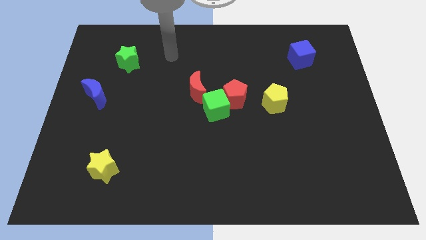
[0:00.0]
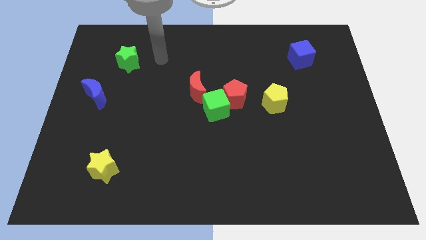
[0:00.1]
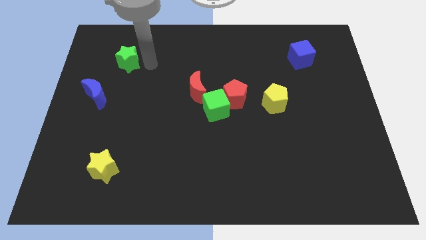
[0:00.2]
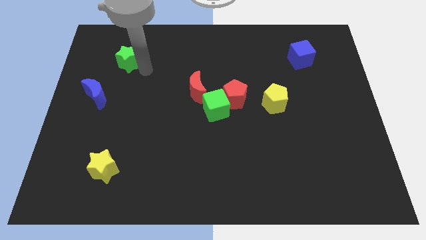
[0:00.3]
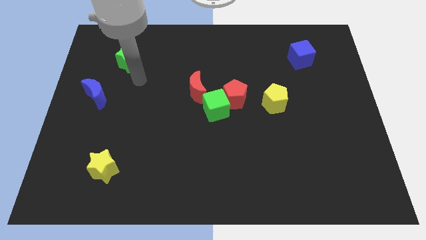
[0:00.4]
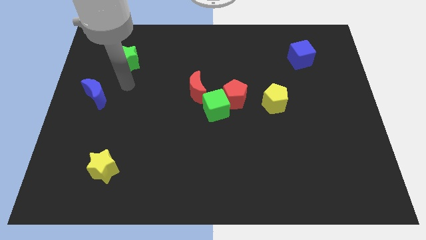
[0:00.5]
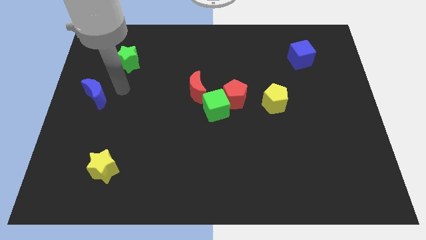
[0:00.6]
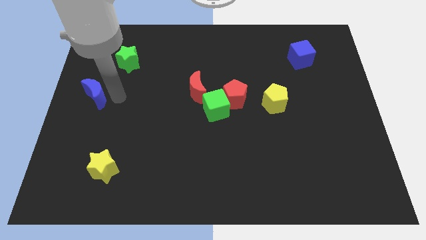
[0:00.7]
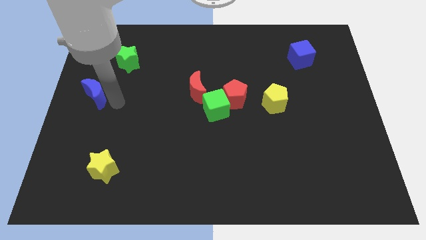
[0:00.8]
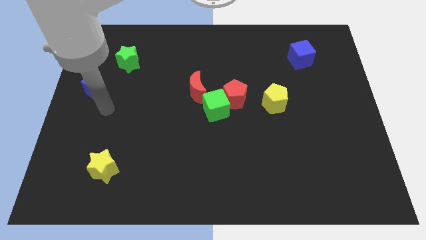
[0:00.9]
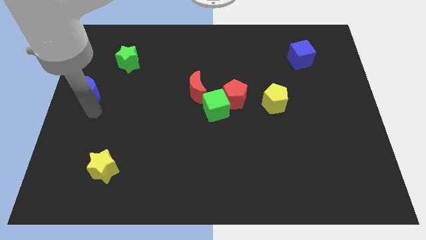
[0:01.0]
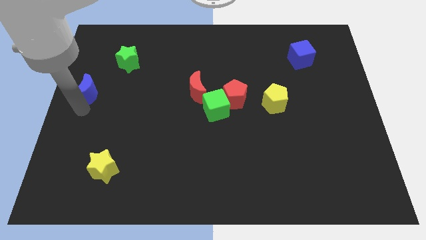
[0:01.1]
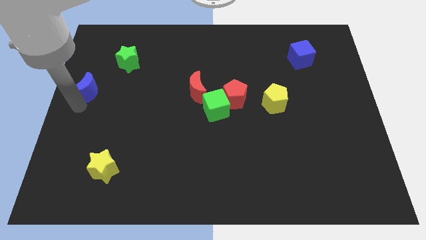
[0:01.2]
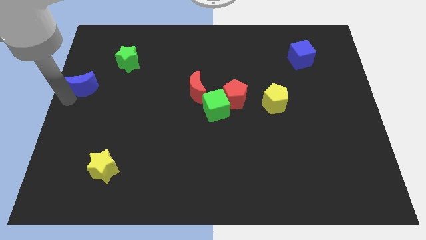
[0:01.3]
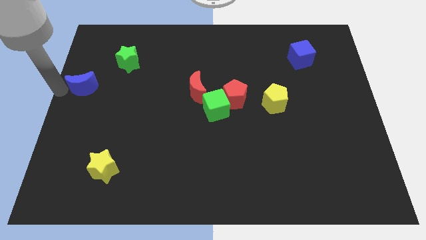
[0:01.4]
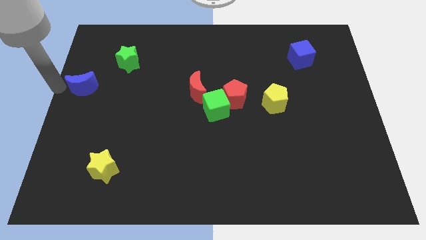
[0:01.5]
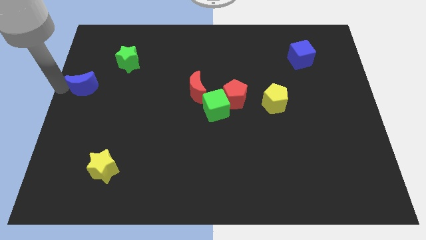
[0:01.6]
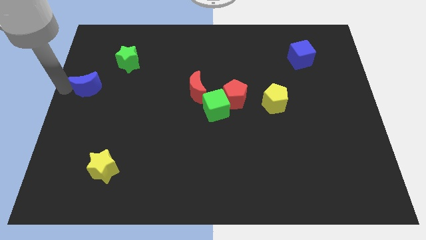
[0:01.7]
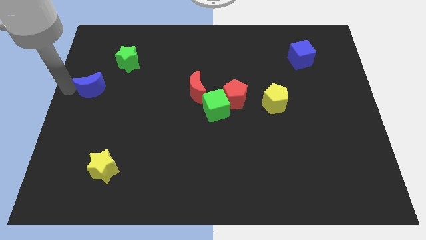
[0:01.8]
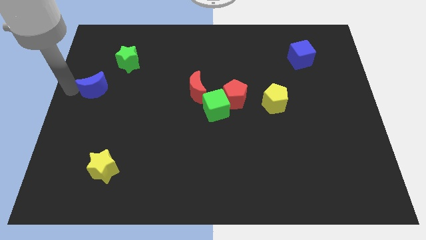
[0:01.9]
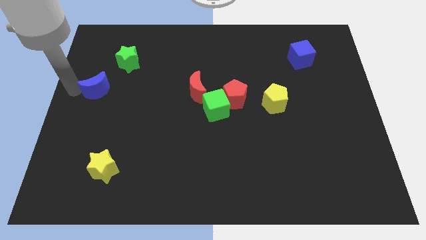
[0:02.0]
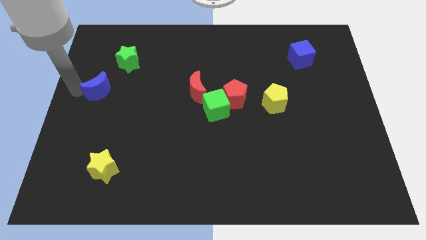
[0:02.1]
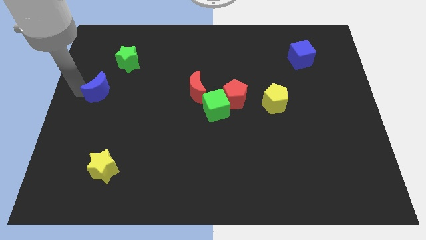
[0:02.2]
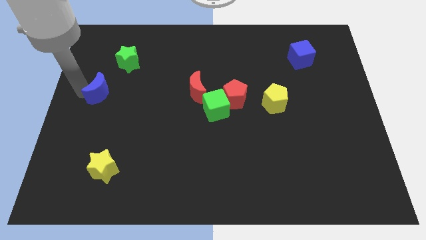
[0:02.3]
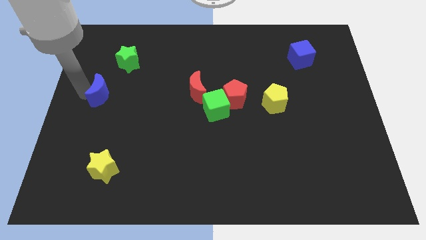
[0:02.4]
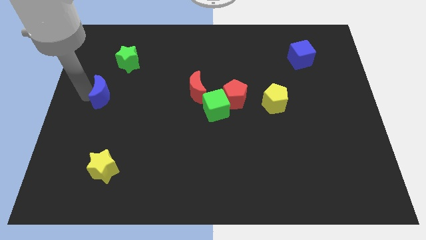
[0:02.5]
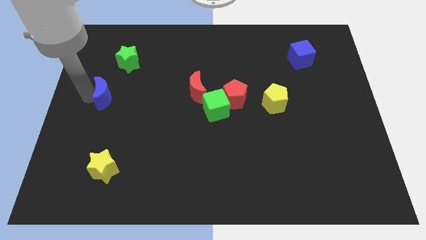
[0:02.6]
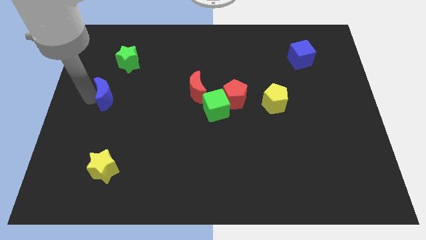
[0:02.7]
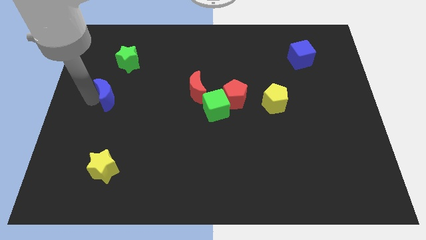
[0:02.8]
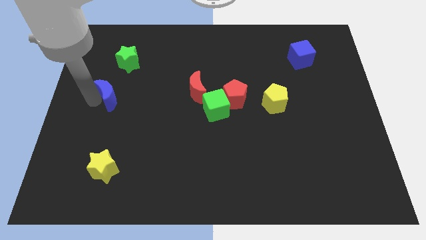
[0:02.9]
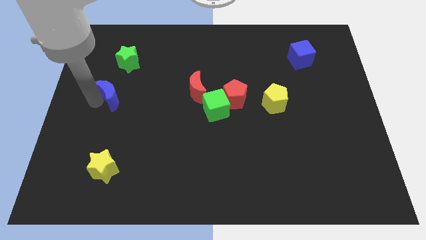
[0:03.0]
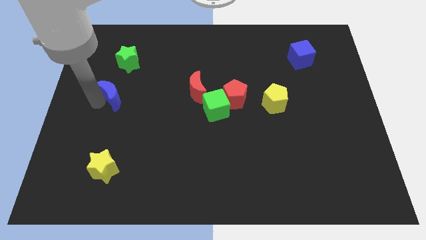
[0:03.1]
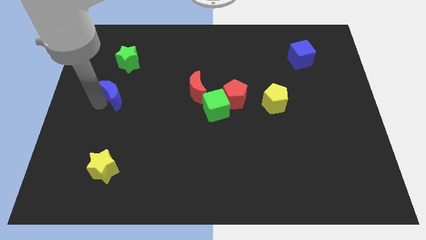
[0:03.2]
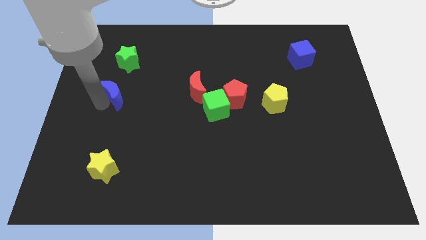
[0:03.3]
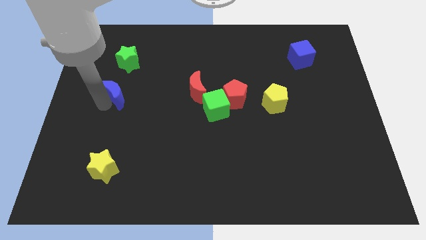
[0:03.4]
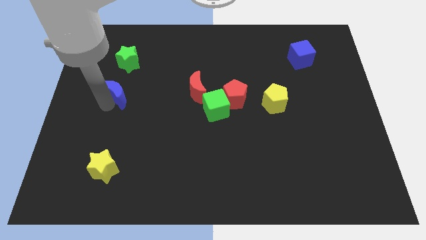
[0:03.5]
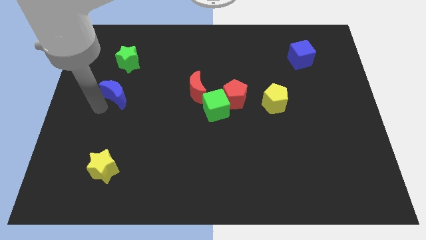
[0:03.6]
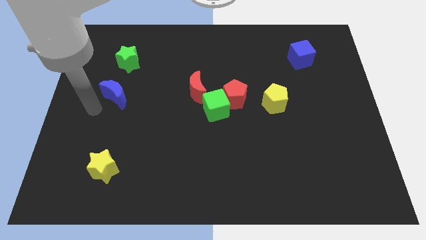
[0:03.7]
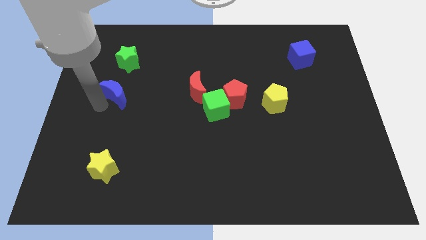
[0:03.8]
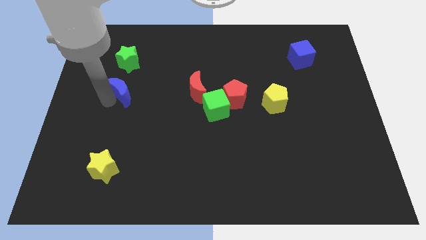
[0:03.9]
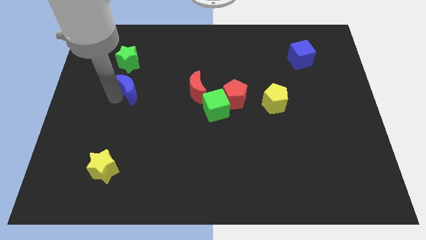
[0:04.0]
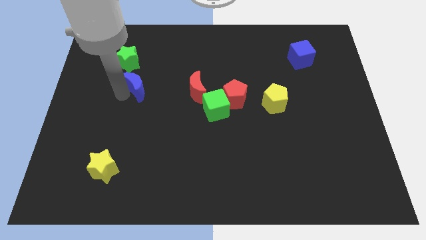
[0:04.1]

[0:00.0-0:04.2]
push the blue moon up and right diagonally a bit

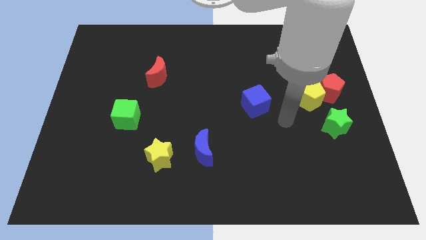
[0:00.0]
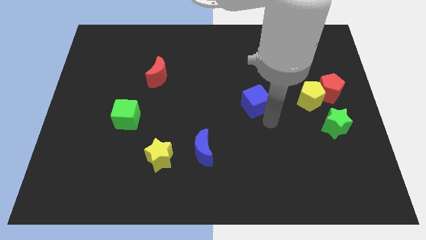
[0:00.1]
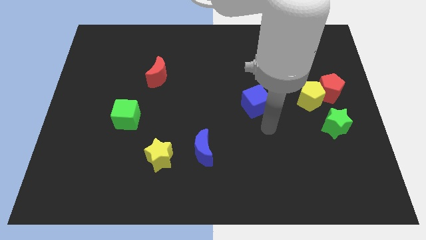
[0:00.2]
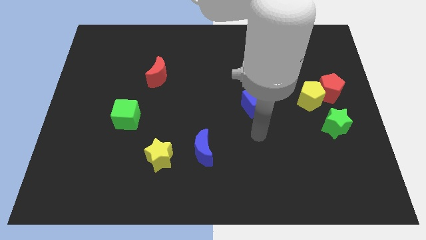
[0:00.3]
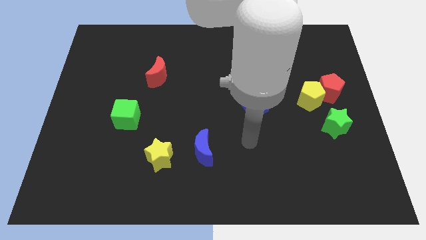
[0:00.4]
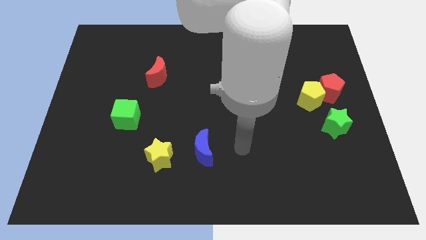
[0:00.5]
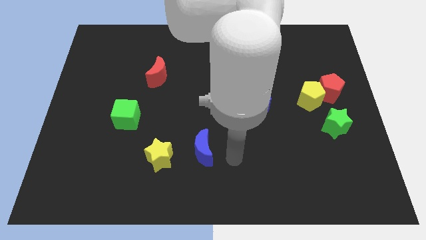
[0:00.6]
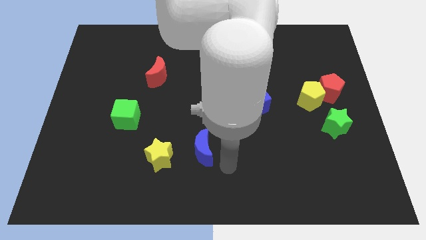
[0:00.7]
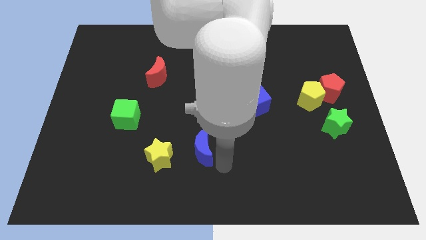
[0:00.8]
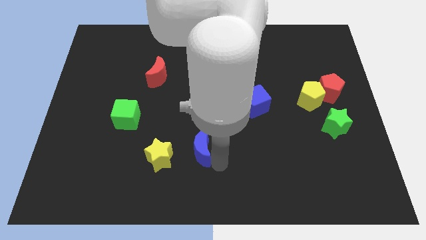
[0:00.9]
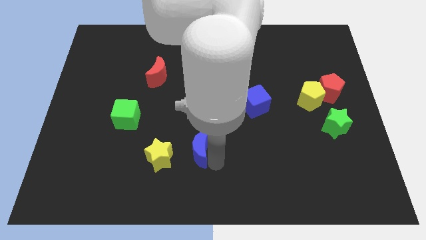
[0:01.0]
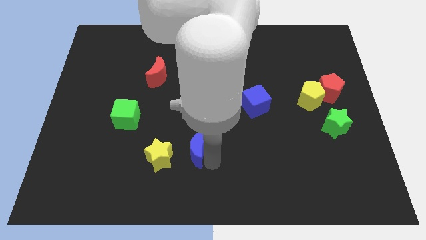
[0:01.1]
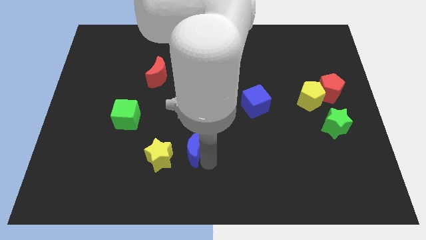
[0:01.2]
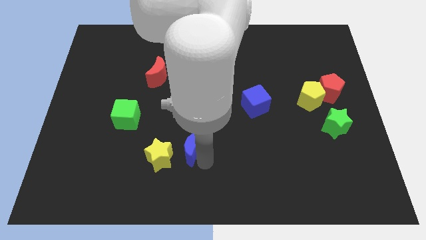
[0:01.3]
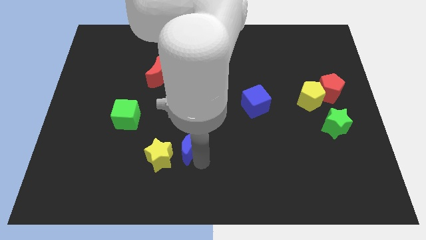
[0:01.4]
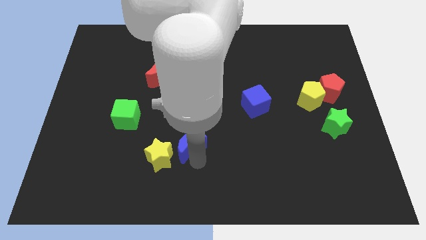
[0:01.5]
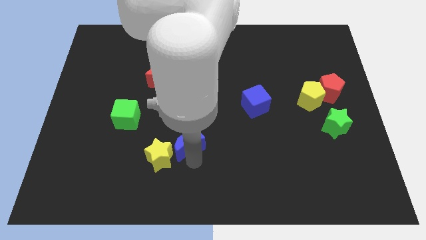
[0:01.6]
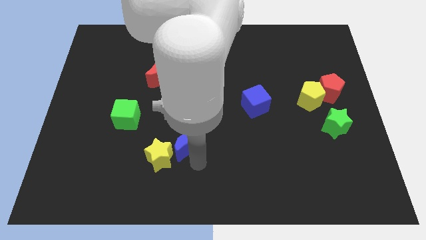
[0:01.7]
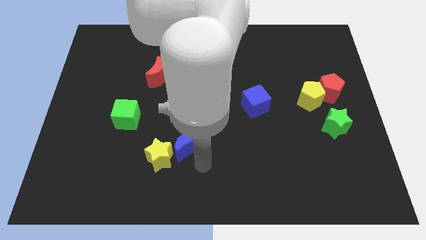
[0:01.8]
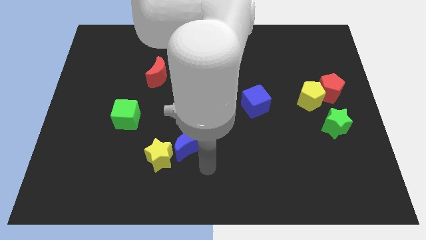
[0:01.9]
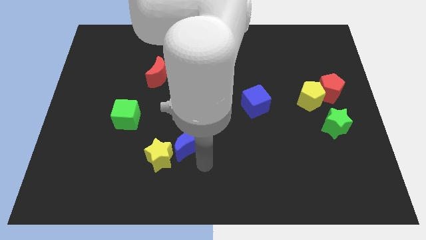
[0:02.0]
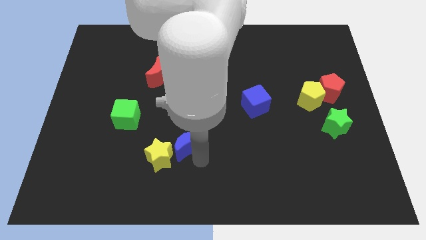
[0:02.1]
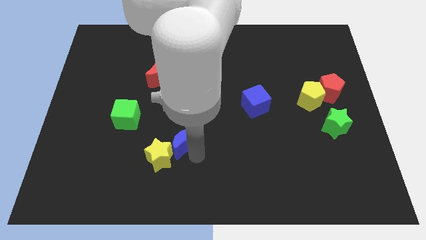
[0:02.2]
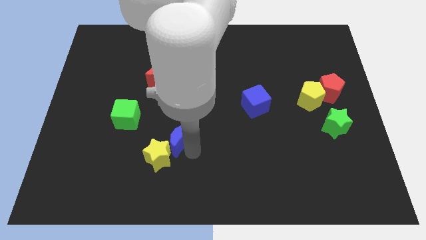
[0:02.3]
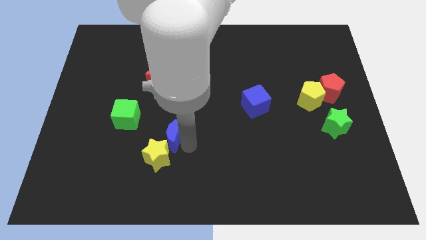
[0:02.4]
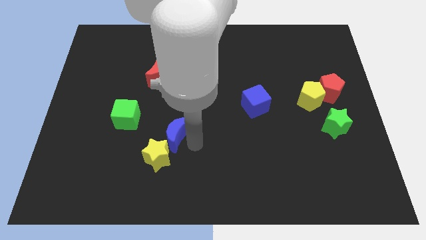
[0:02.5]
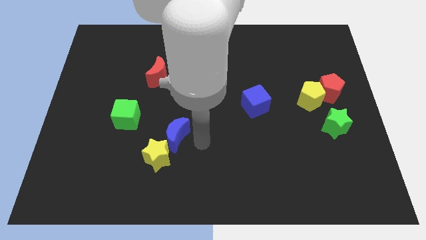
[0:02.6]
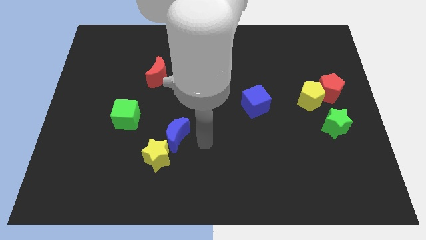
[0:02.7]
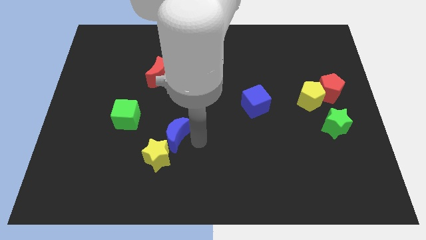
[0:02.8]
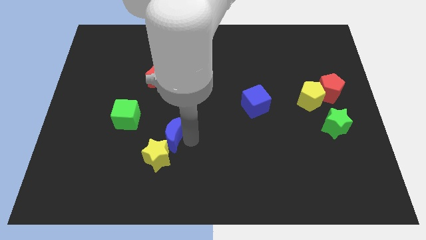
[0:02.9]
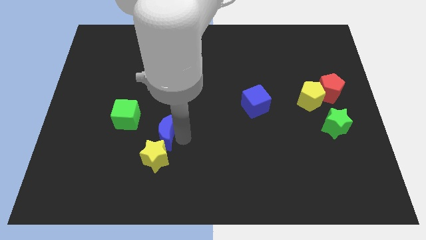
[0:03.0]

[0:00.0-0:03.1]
slightly push the blue moon to the left

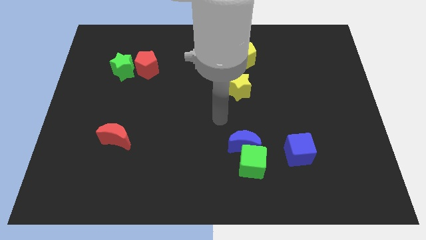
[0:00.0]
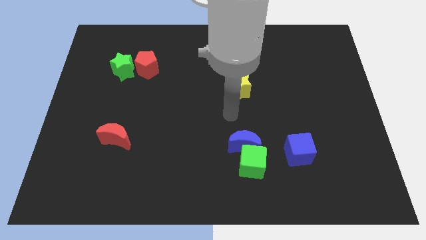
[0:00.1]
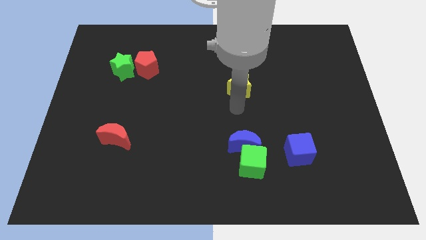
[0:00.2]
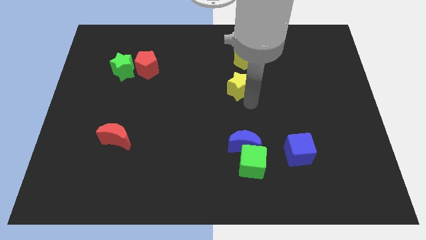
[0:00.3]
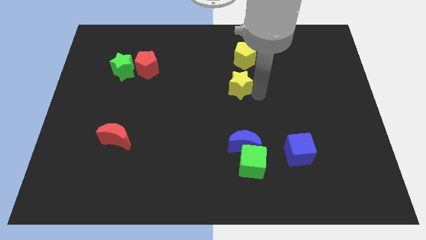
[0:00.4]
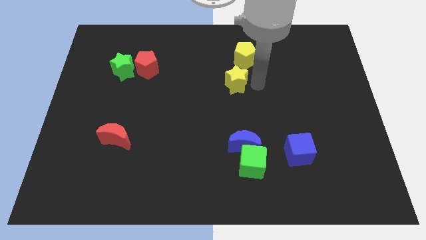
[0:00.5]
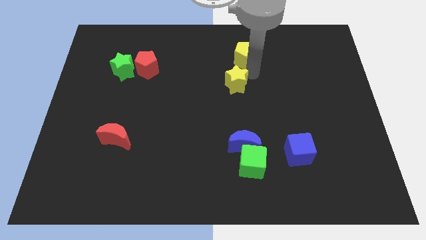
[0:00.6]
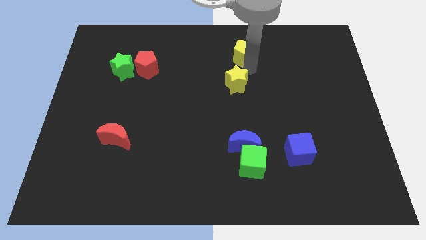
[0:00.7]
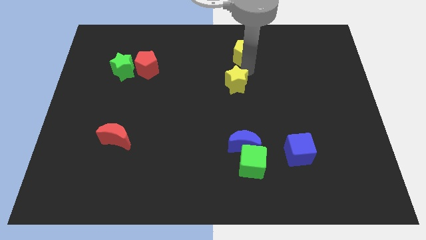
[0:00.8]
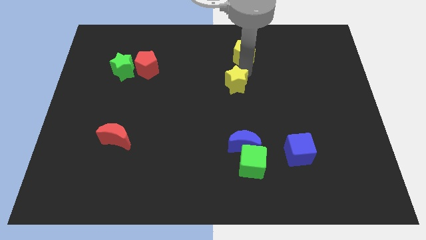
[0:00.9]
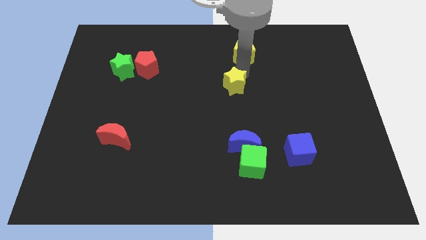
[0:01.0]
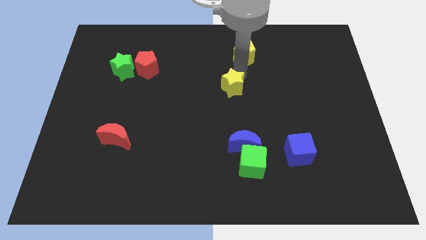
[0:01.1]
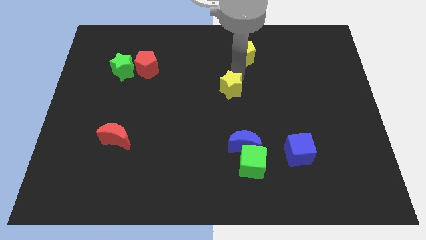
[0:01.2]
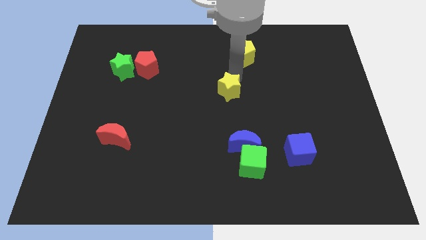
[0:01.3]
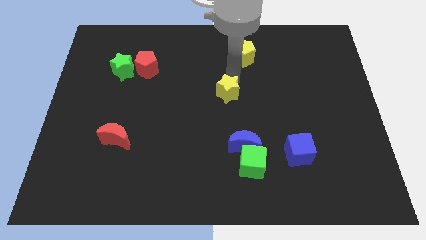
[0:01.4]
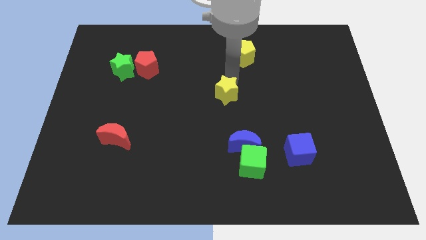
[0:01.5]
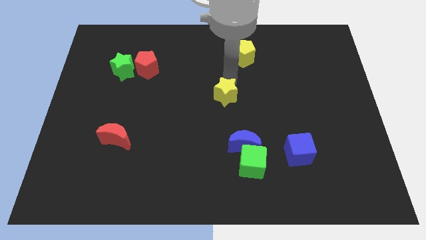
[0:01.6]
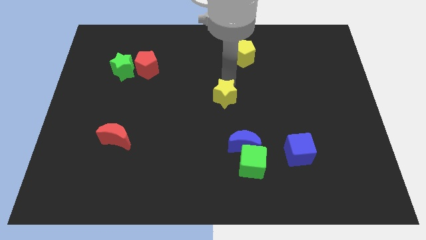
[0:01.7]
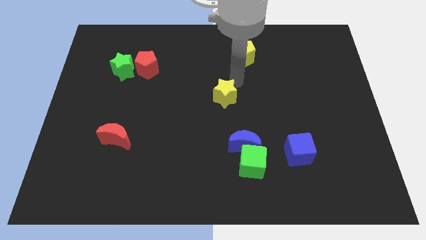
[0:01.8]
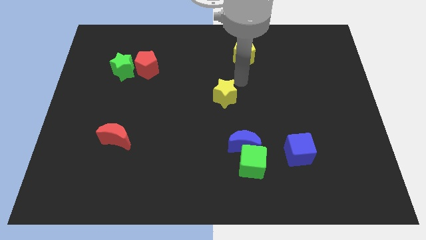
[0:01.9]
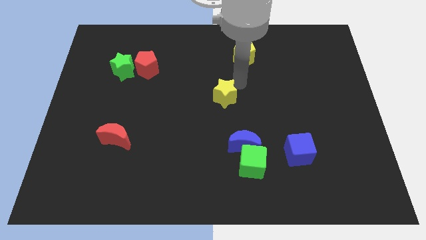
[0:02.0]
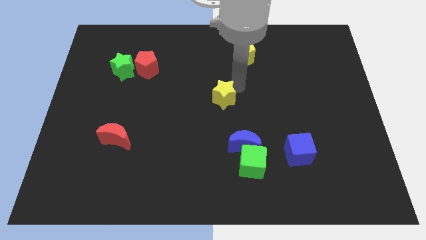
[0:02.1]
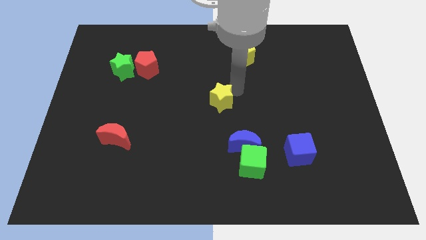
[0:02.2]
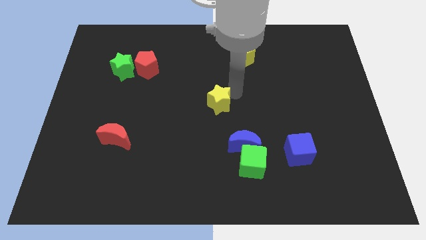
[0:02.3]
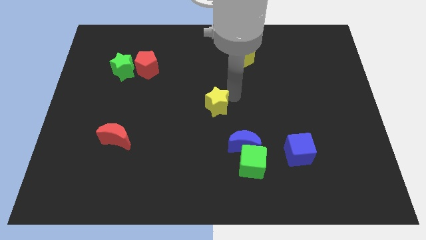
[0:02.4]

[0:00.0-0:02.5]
slightly slide the yellow star downwards and to the left diagonally
